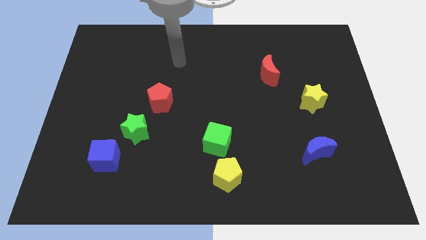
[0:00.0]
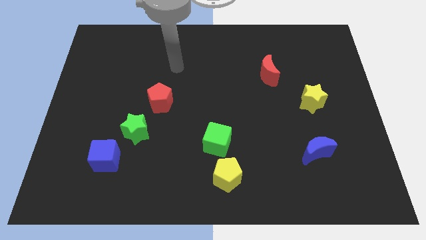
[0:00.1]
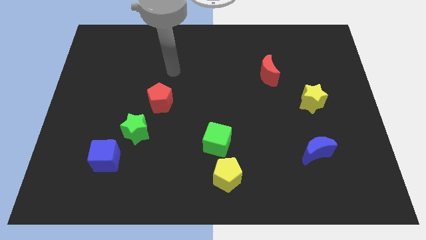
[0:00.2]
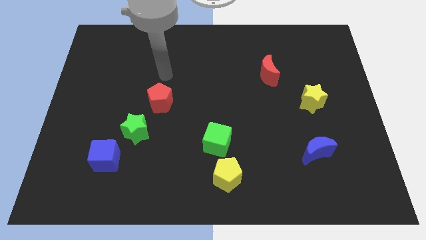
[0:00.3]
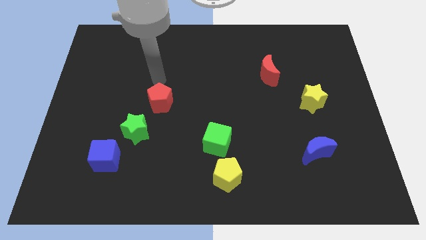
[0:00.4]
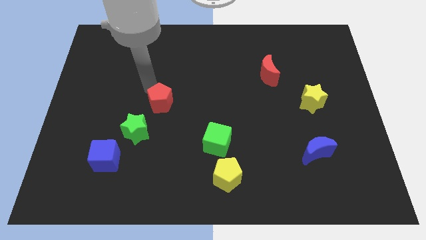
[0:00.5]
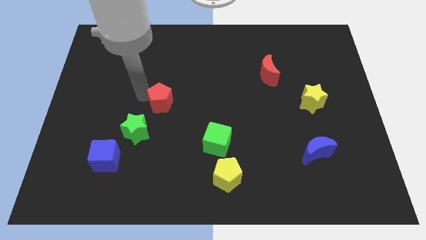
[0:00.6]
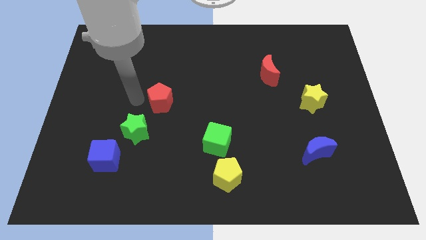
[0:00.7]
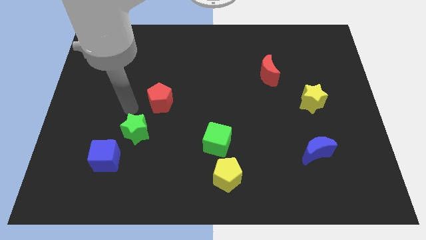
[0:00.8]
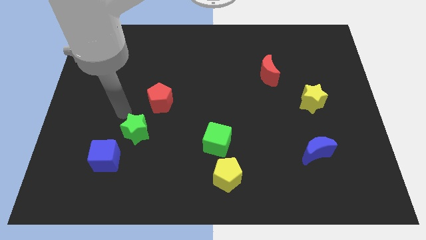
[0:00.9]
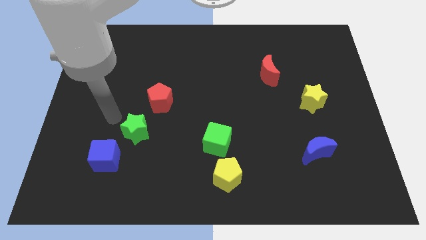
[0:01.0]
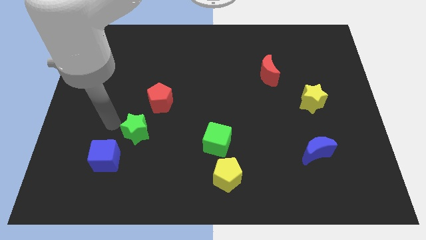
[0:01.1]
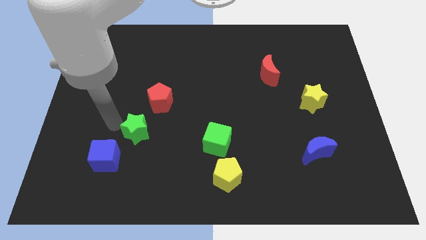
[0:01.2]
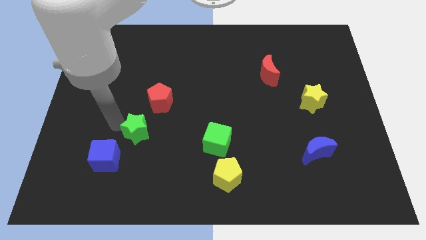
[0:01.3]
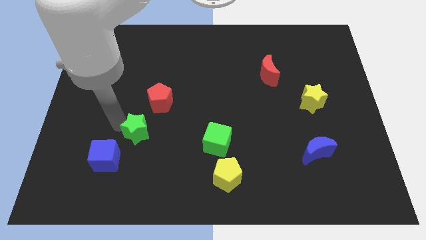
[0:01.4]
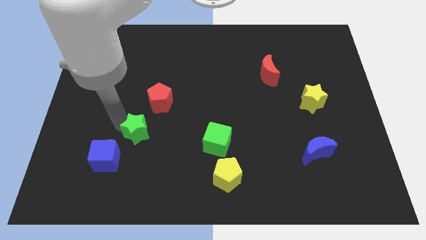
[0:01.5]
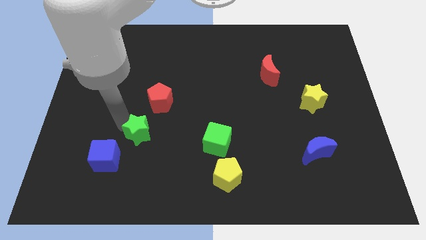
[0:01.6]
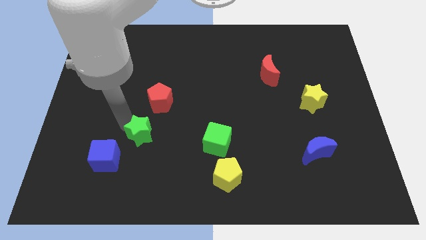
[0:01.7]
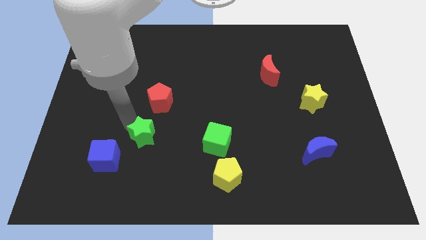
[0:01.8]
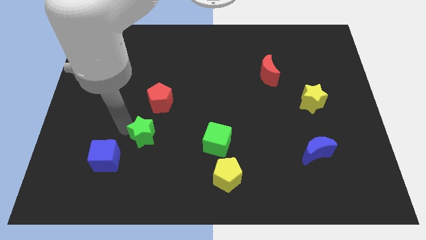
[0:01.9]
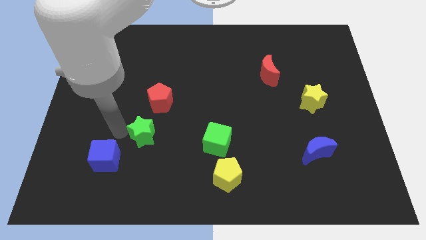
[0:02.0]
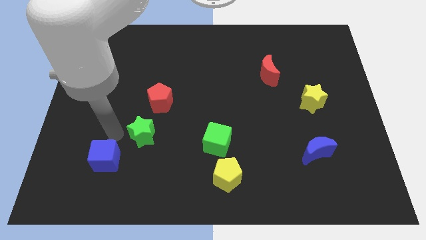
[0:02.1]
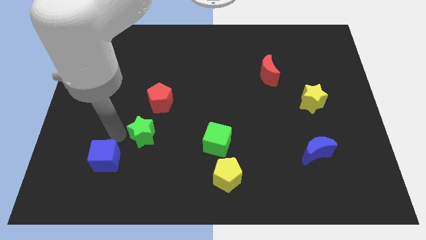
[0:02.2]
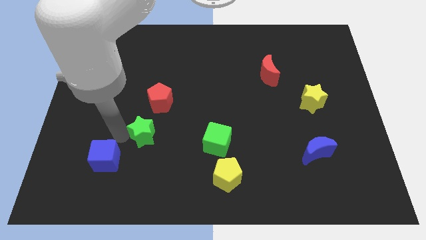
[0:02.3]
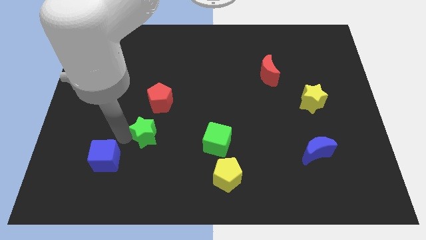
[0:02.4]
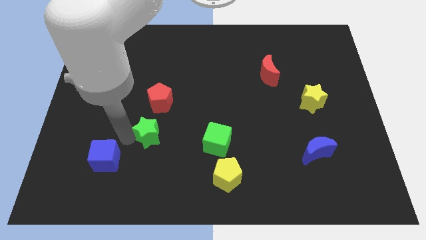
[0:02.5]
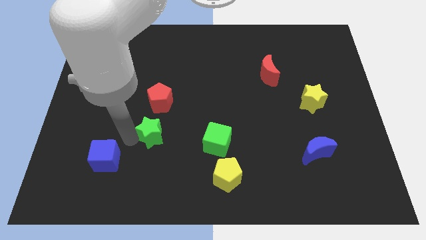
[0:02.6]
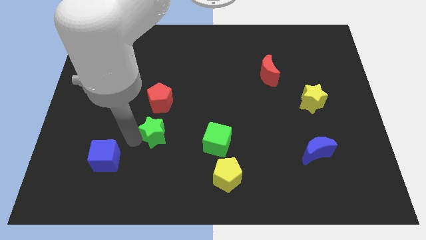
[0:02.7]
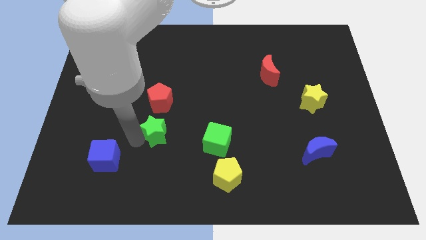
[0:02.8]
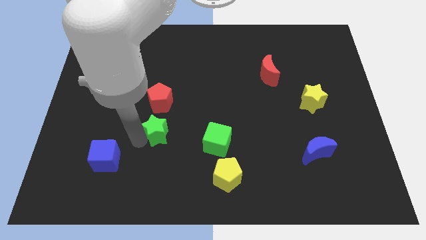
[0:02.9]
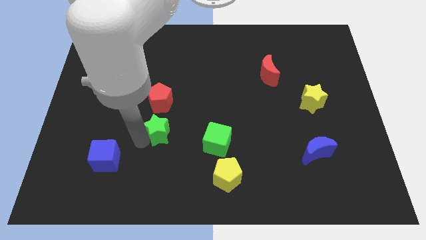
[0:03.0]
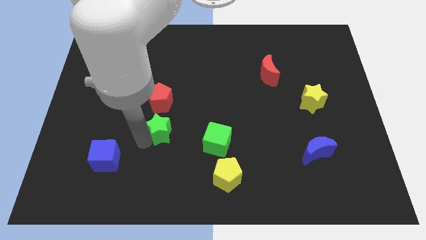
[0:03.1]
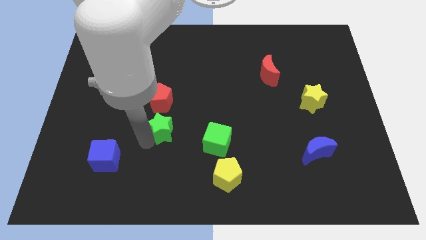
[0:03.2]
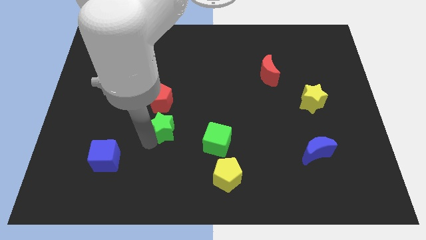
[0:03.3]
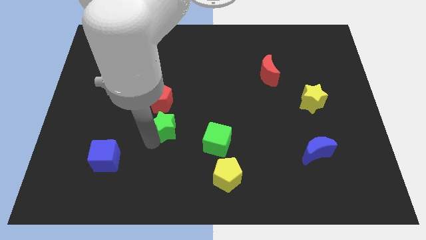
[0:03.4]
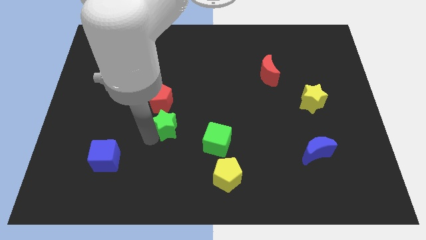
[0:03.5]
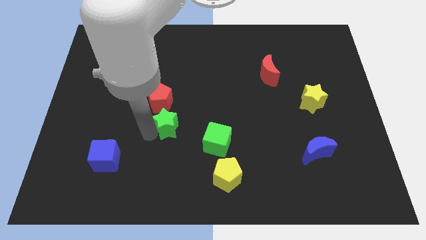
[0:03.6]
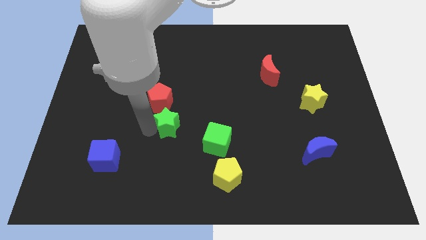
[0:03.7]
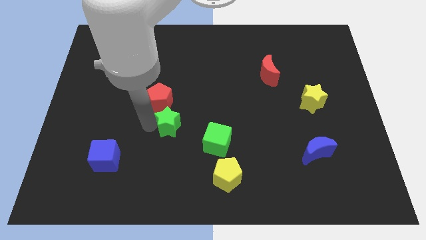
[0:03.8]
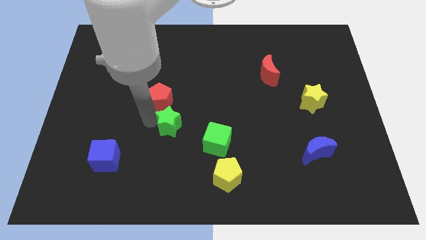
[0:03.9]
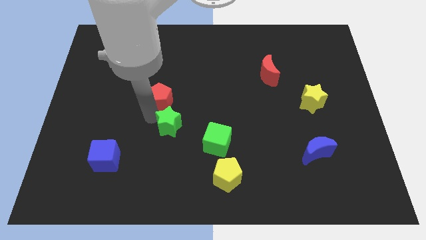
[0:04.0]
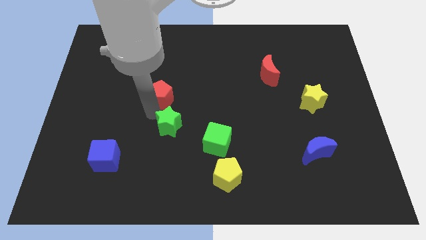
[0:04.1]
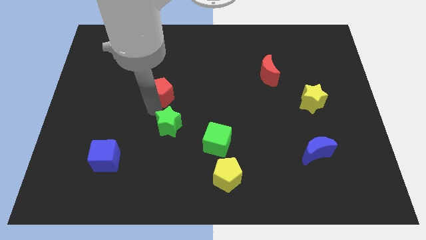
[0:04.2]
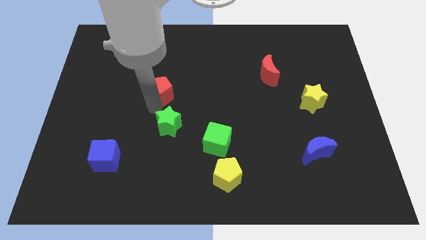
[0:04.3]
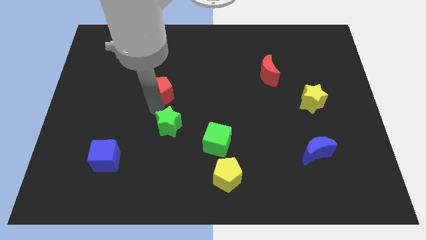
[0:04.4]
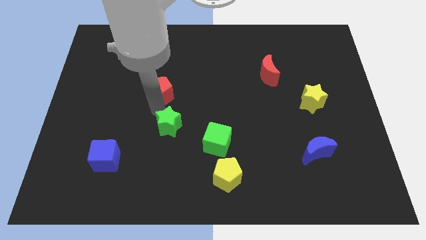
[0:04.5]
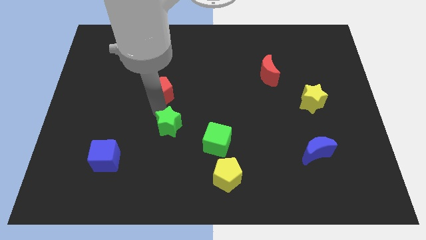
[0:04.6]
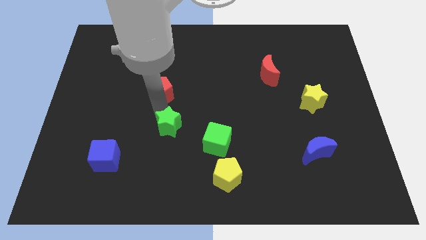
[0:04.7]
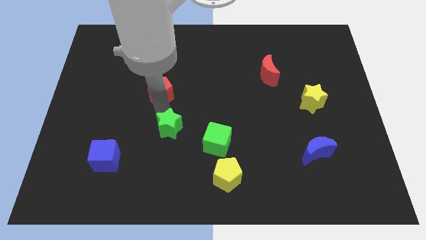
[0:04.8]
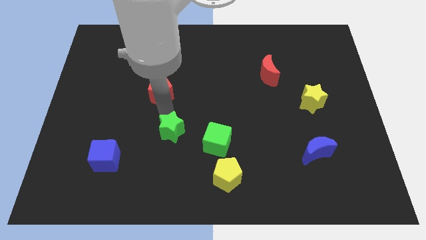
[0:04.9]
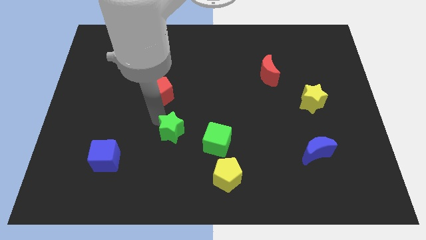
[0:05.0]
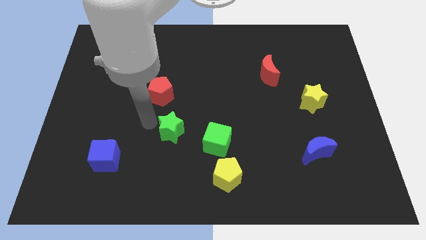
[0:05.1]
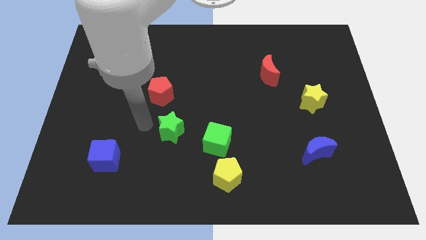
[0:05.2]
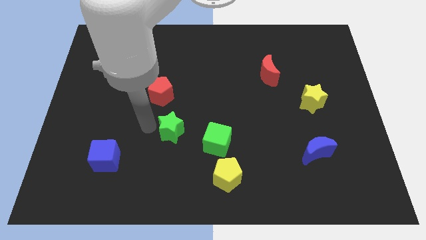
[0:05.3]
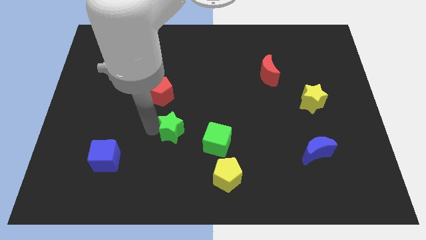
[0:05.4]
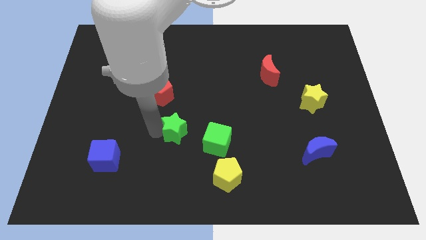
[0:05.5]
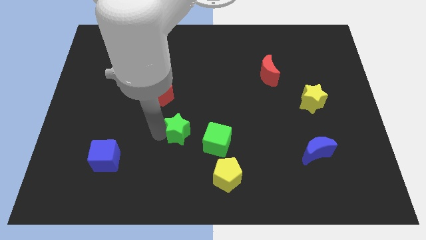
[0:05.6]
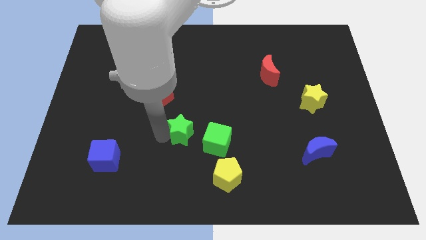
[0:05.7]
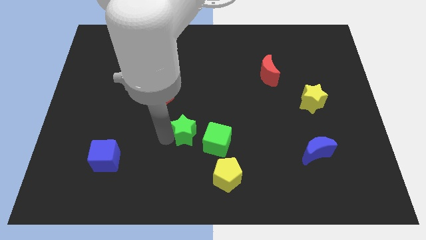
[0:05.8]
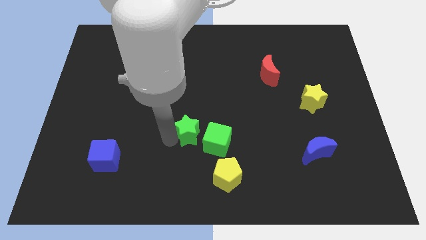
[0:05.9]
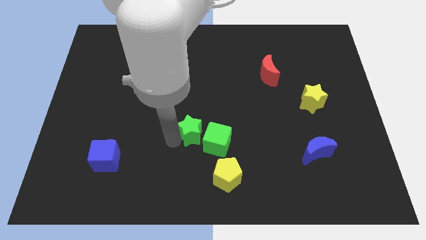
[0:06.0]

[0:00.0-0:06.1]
push the green star towards the green cube
